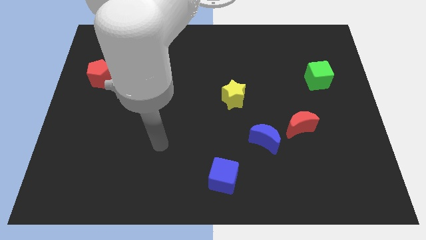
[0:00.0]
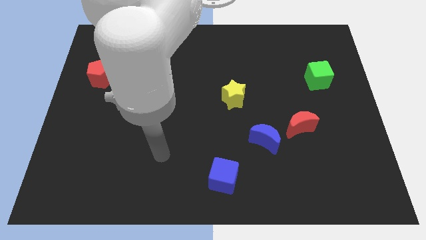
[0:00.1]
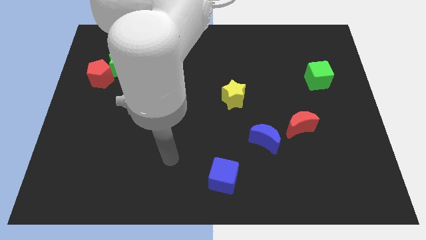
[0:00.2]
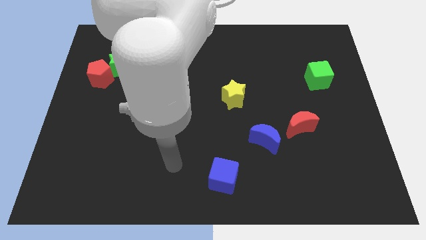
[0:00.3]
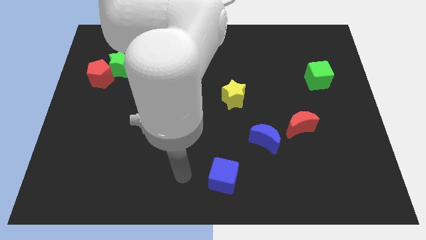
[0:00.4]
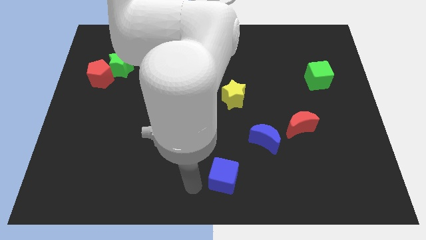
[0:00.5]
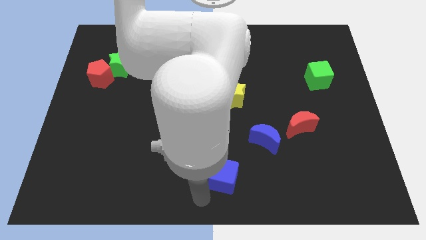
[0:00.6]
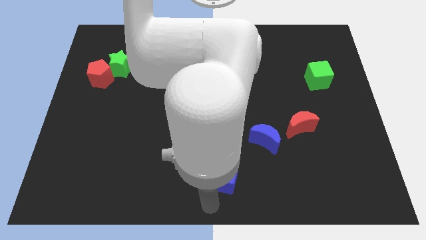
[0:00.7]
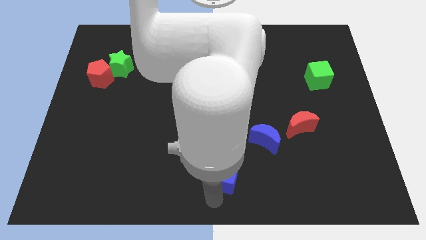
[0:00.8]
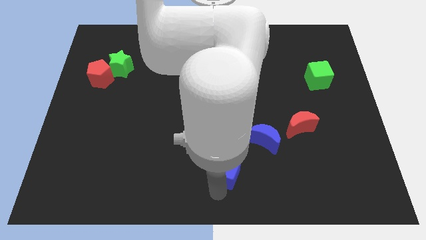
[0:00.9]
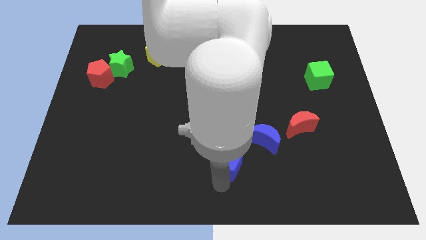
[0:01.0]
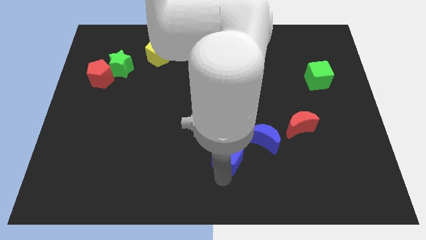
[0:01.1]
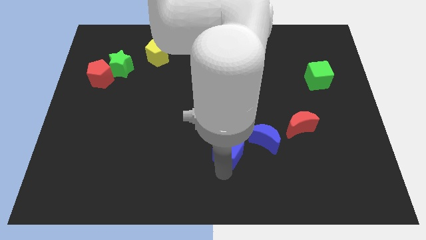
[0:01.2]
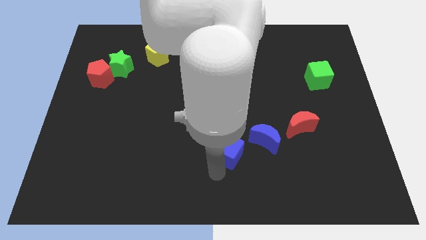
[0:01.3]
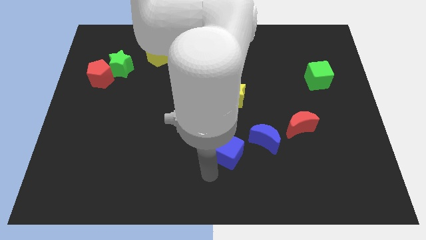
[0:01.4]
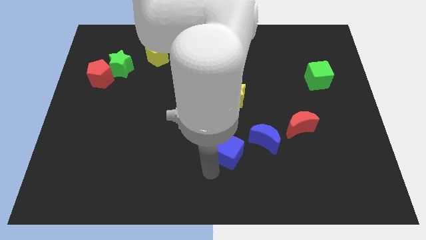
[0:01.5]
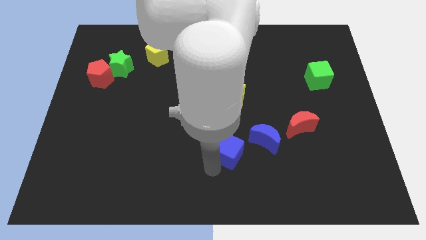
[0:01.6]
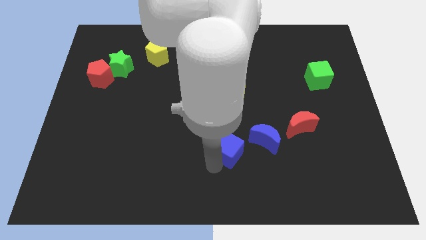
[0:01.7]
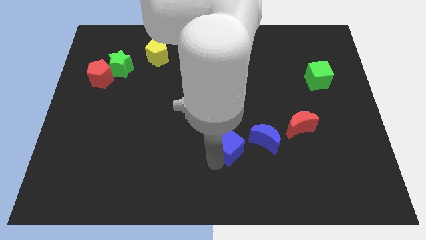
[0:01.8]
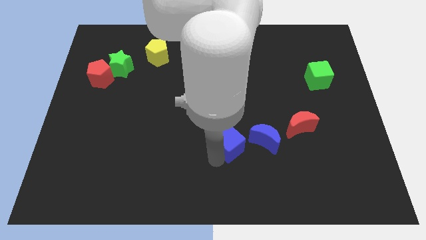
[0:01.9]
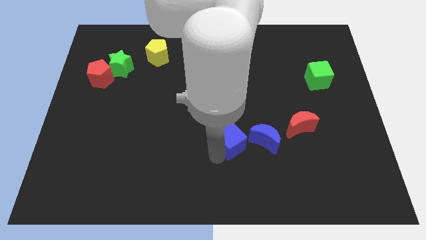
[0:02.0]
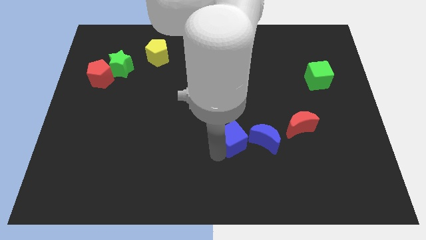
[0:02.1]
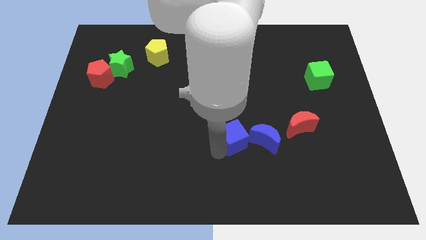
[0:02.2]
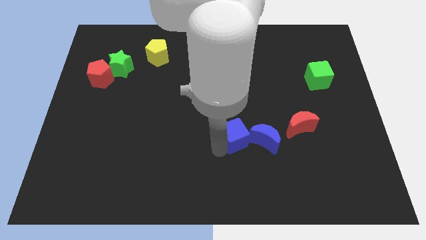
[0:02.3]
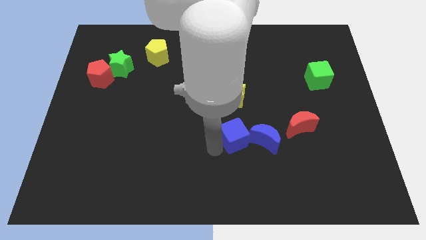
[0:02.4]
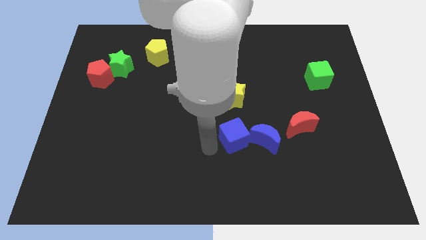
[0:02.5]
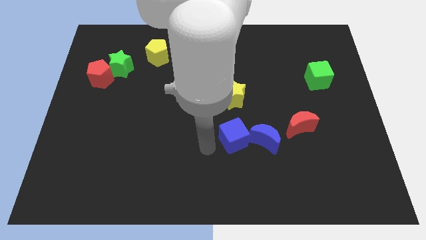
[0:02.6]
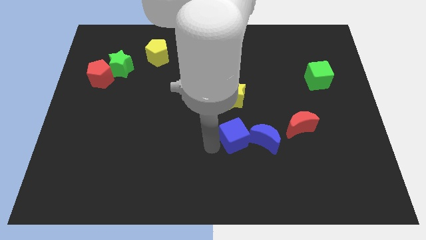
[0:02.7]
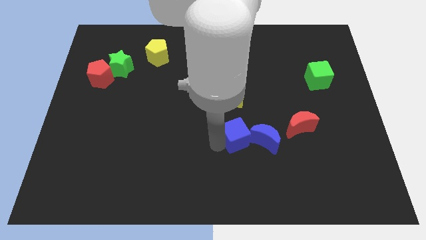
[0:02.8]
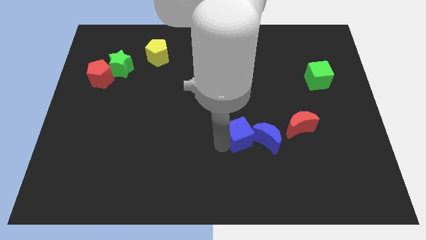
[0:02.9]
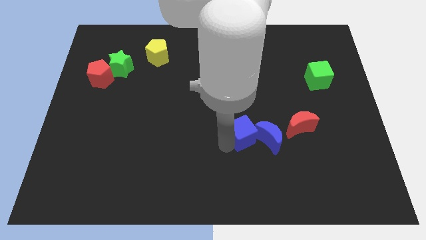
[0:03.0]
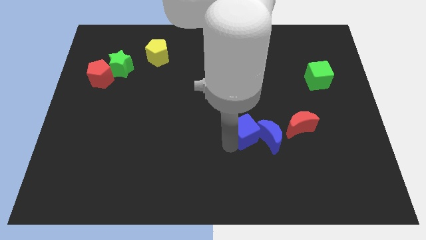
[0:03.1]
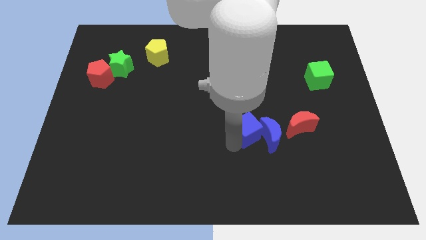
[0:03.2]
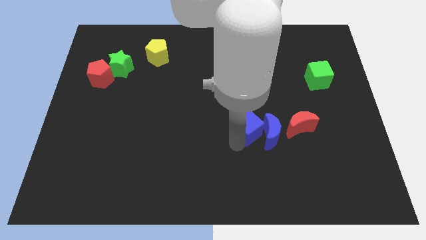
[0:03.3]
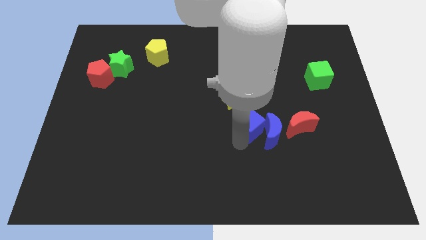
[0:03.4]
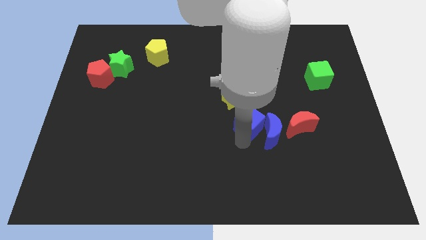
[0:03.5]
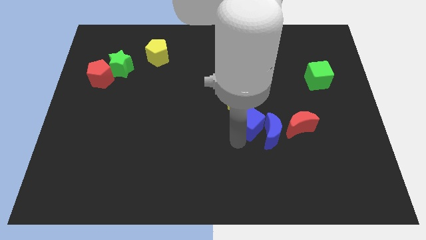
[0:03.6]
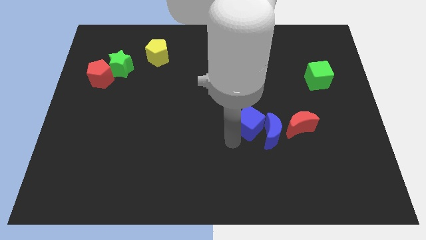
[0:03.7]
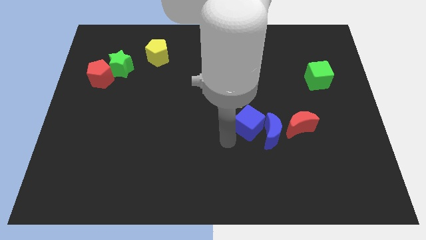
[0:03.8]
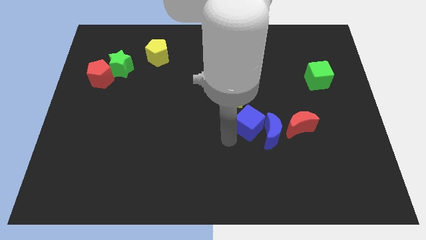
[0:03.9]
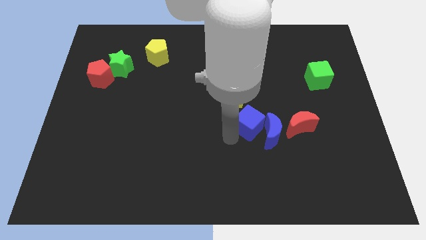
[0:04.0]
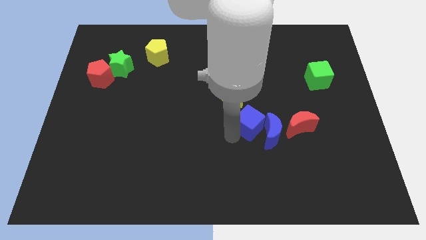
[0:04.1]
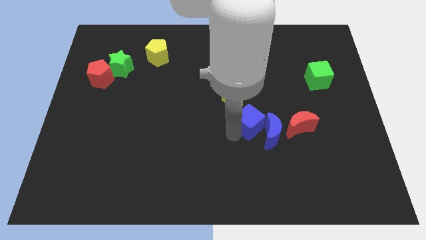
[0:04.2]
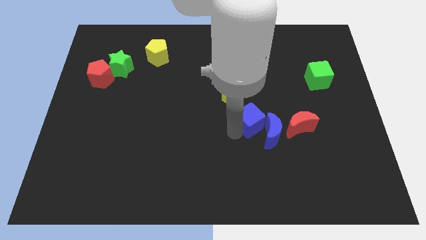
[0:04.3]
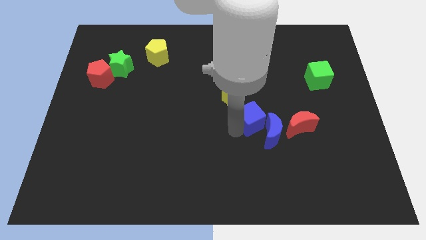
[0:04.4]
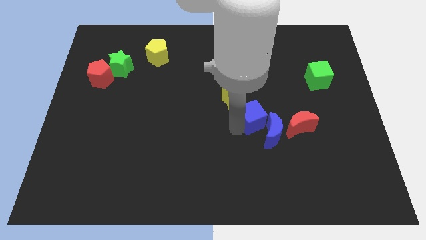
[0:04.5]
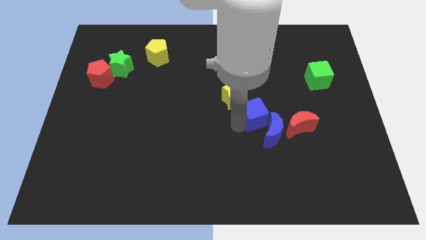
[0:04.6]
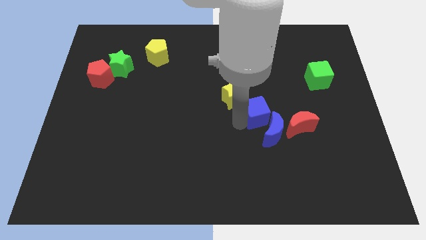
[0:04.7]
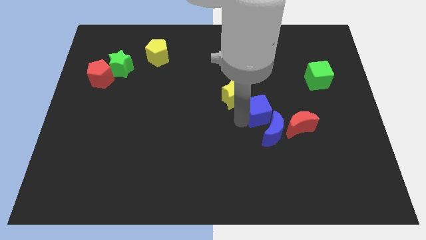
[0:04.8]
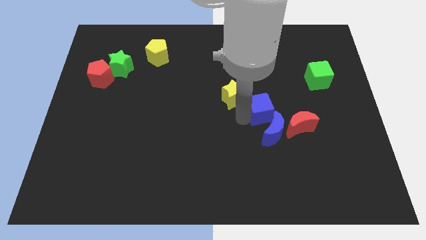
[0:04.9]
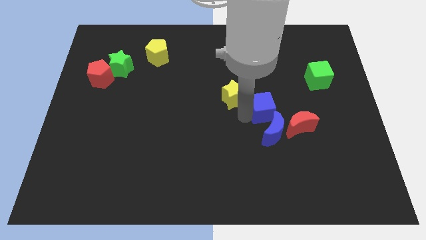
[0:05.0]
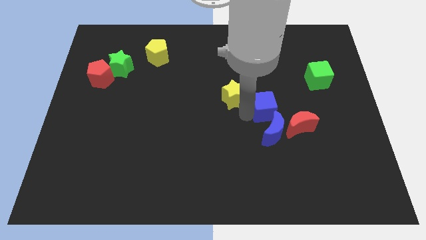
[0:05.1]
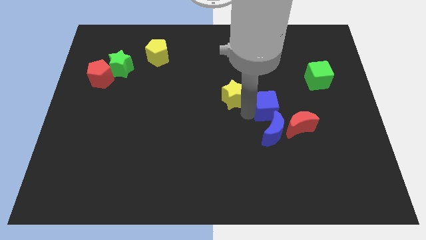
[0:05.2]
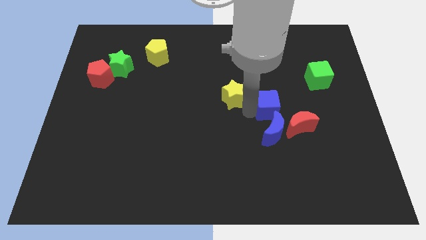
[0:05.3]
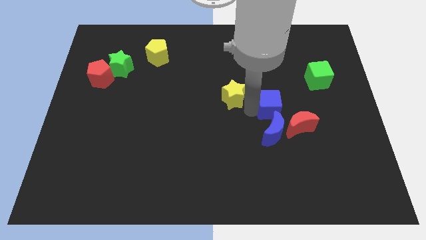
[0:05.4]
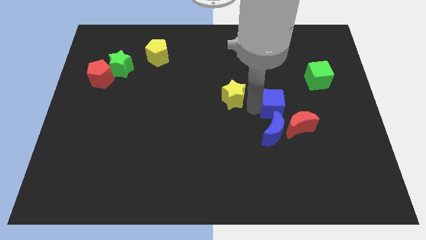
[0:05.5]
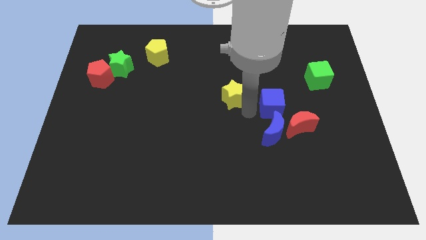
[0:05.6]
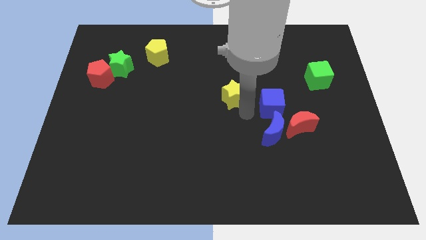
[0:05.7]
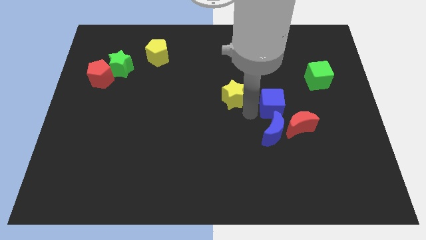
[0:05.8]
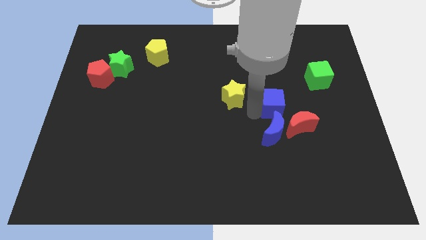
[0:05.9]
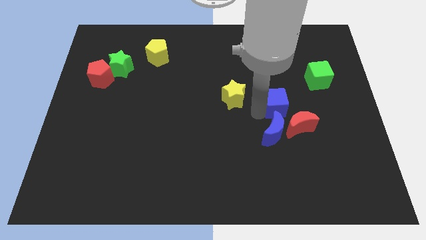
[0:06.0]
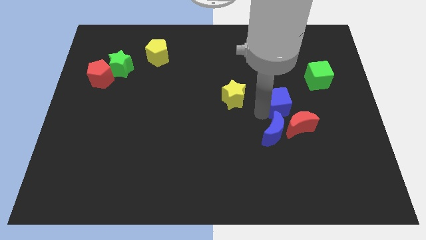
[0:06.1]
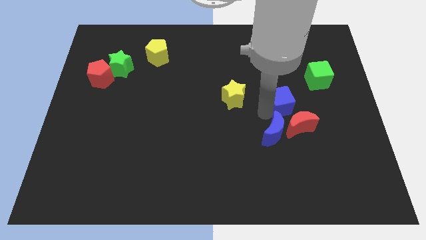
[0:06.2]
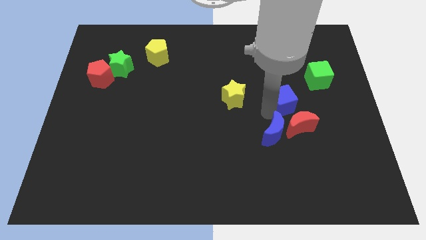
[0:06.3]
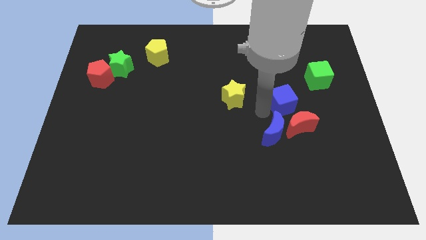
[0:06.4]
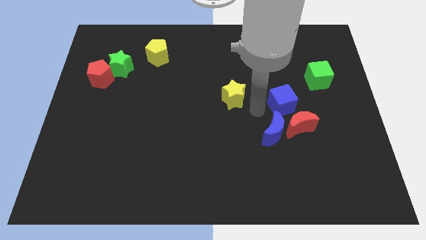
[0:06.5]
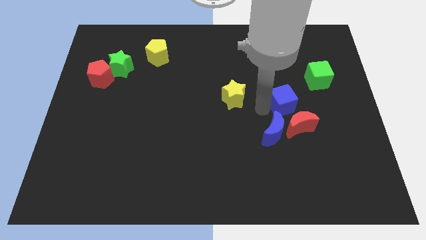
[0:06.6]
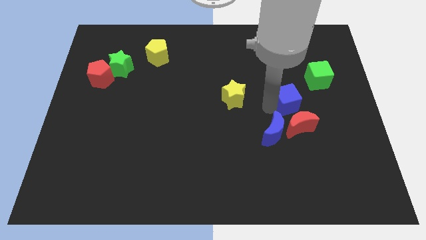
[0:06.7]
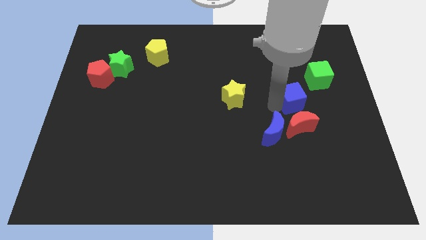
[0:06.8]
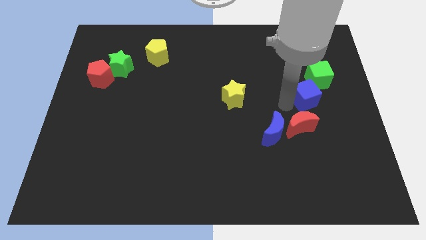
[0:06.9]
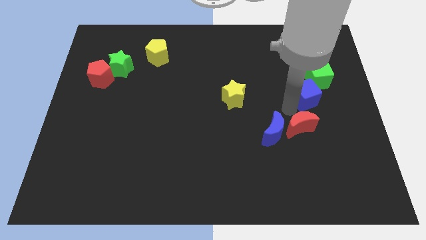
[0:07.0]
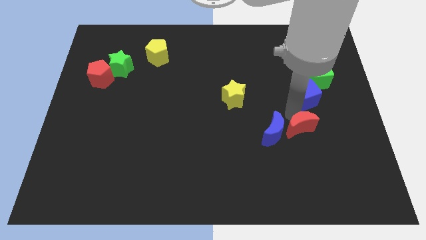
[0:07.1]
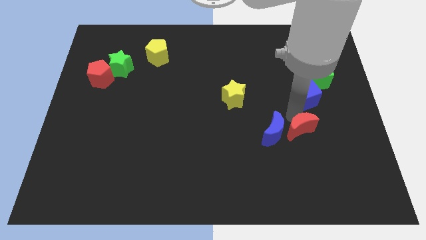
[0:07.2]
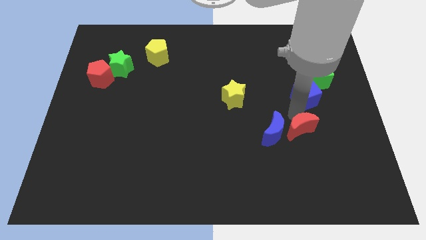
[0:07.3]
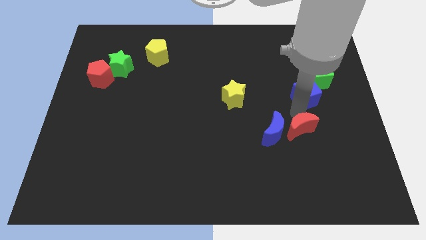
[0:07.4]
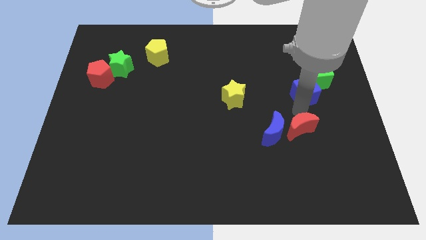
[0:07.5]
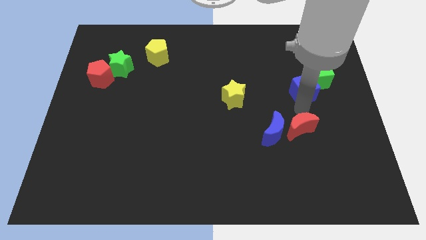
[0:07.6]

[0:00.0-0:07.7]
move the blue cube close to the green cube
